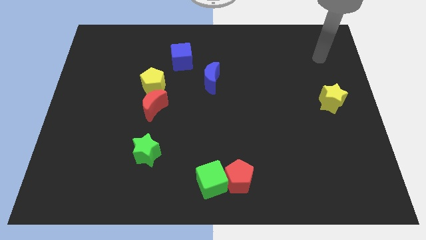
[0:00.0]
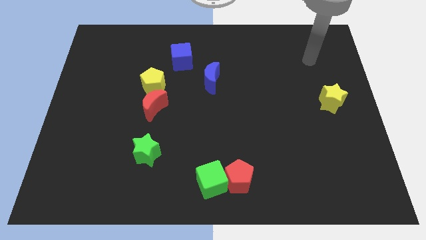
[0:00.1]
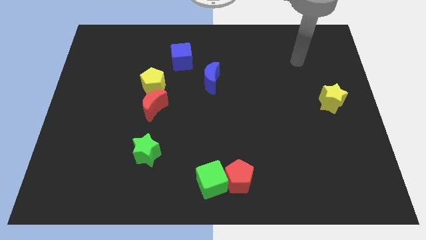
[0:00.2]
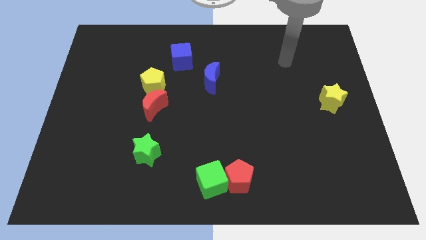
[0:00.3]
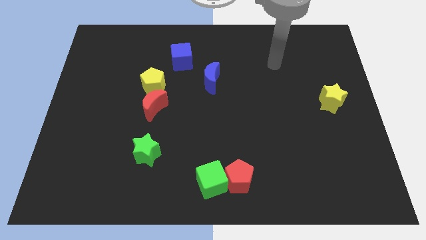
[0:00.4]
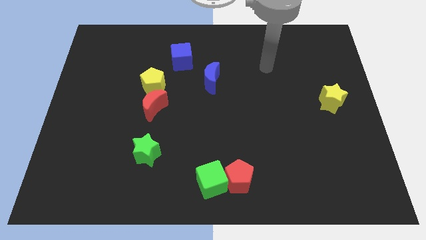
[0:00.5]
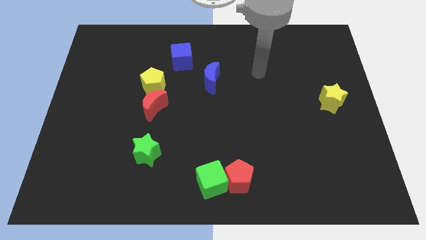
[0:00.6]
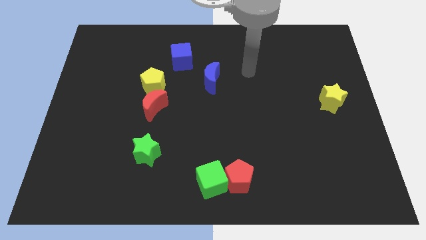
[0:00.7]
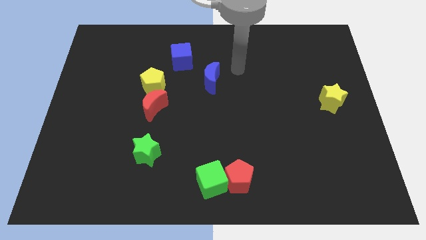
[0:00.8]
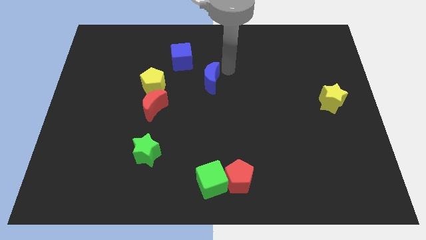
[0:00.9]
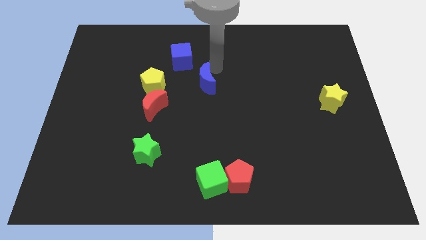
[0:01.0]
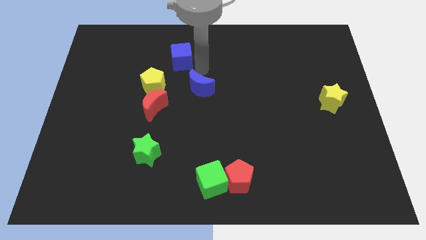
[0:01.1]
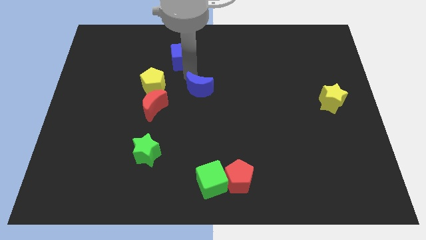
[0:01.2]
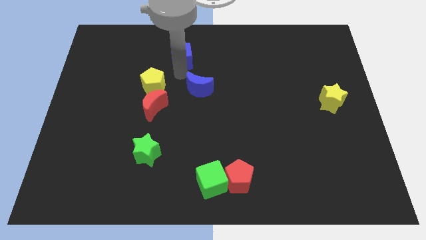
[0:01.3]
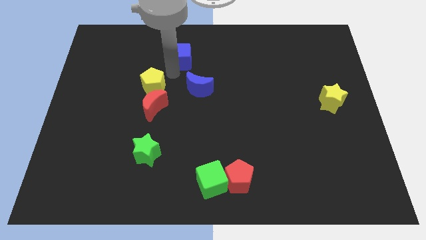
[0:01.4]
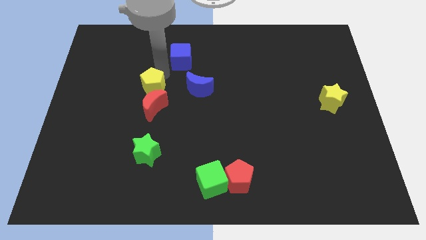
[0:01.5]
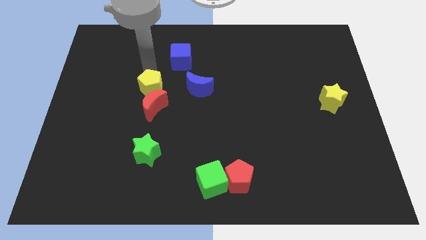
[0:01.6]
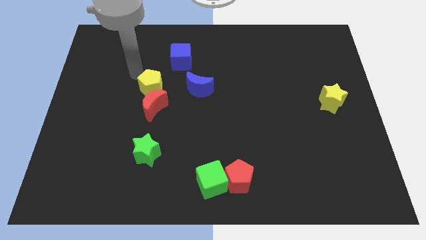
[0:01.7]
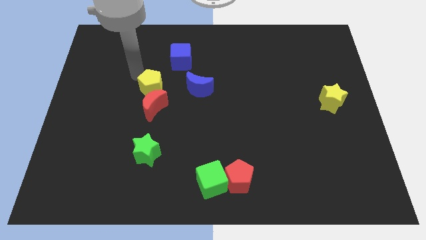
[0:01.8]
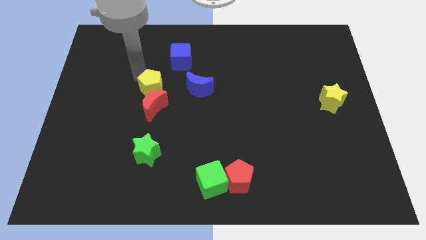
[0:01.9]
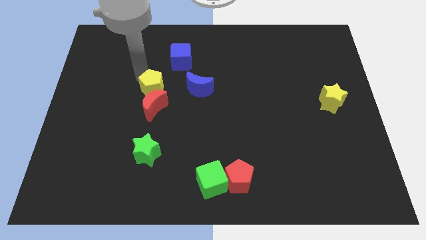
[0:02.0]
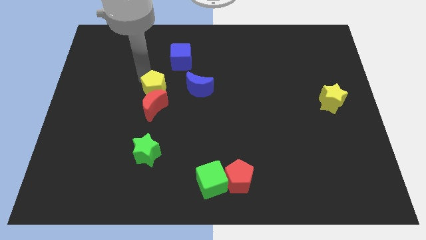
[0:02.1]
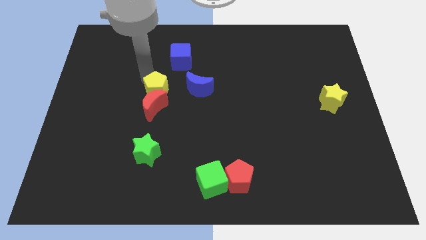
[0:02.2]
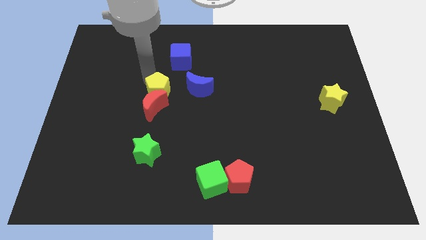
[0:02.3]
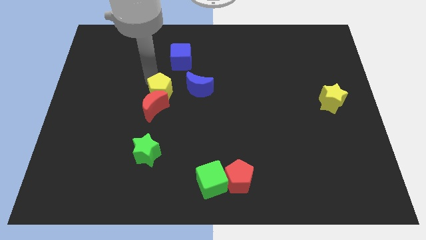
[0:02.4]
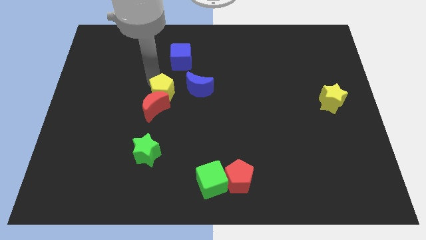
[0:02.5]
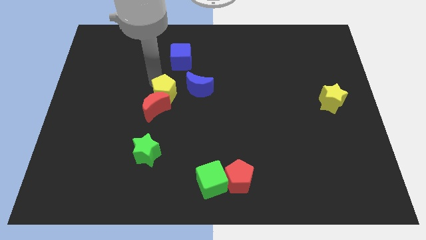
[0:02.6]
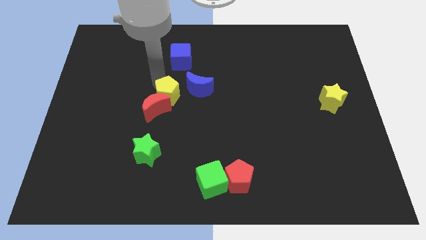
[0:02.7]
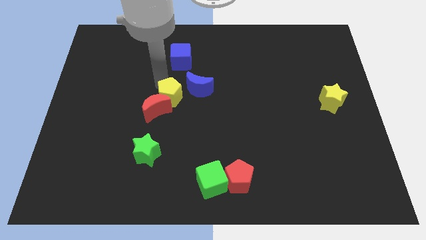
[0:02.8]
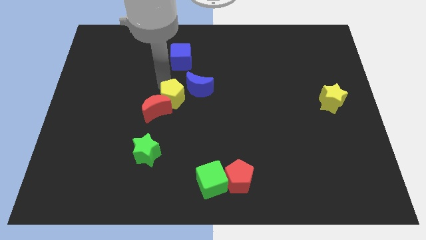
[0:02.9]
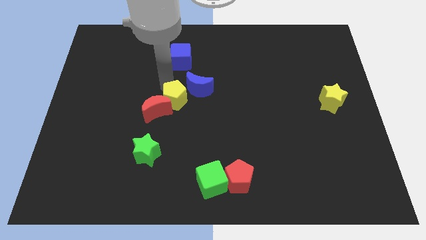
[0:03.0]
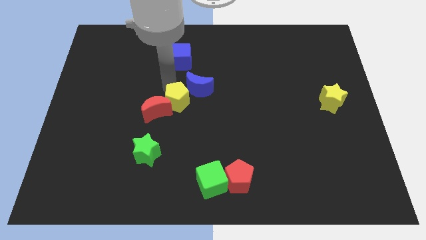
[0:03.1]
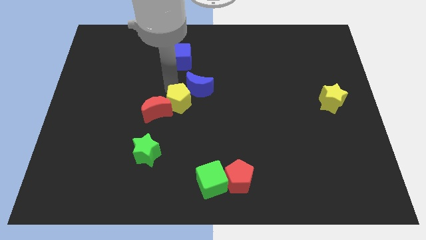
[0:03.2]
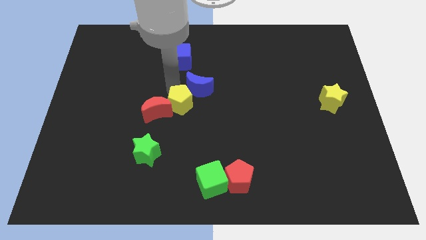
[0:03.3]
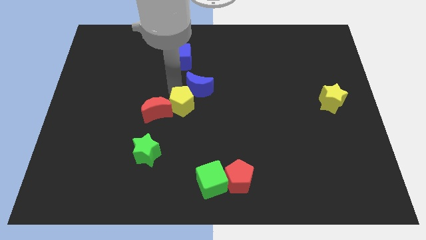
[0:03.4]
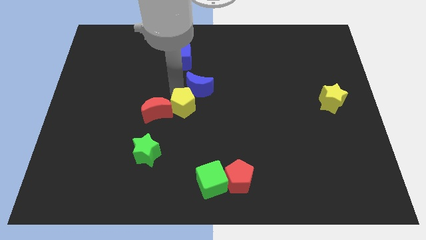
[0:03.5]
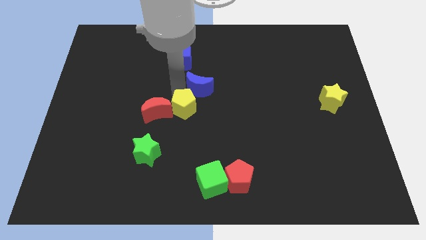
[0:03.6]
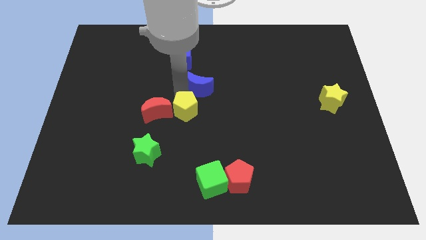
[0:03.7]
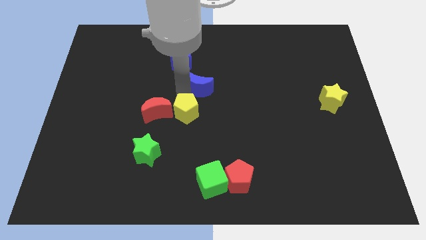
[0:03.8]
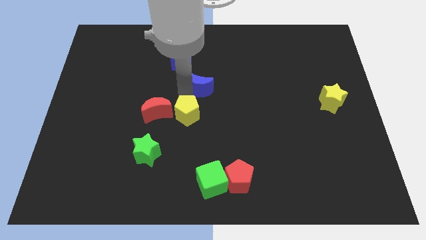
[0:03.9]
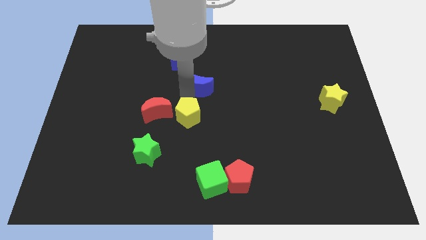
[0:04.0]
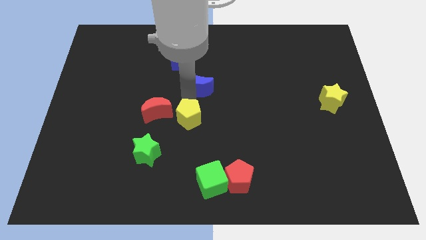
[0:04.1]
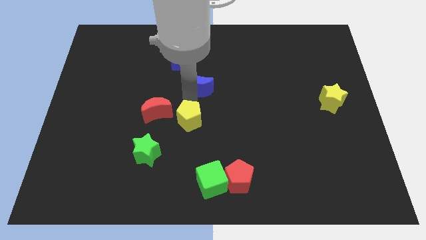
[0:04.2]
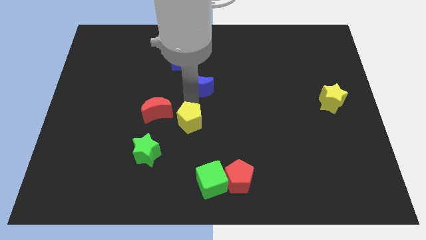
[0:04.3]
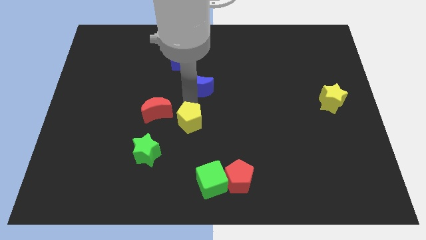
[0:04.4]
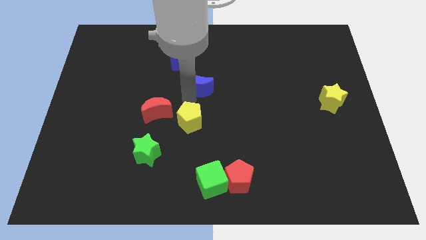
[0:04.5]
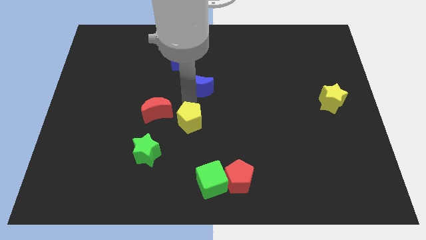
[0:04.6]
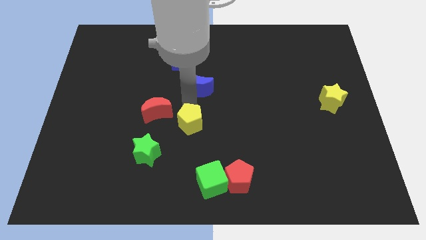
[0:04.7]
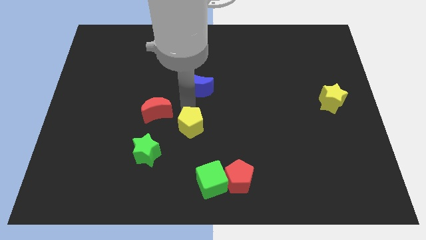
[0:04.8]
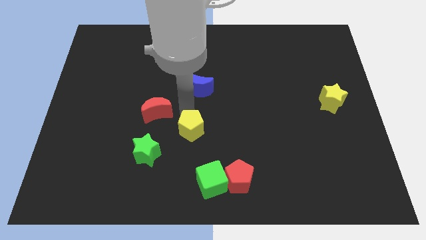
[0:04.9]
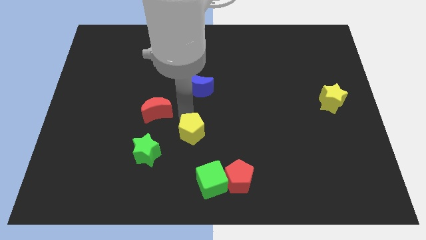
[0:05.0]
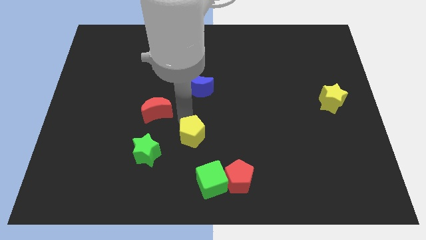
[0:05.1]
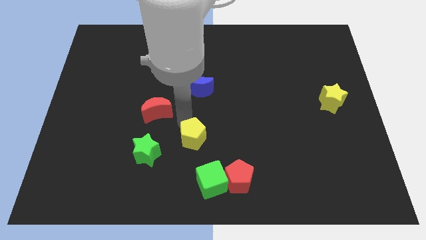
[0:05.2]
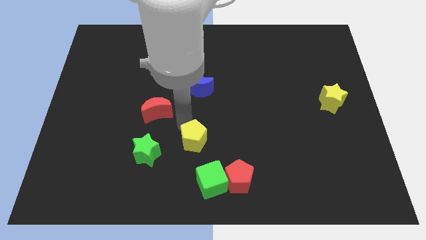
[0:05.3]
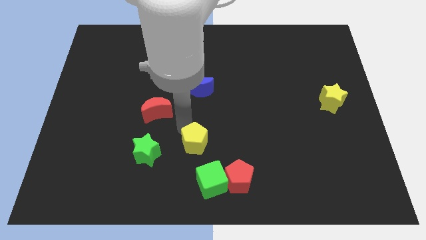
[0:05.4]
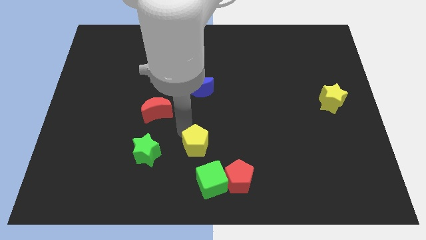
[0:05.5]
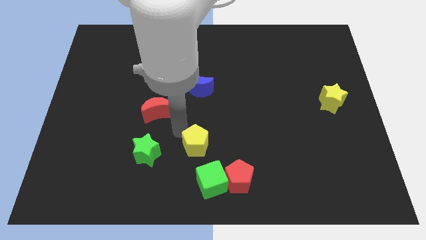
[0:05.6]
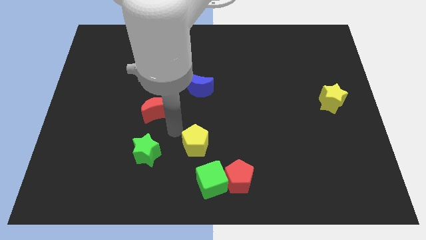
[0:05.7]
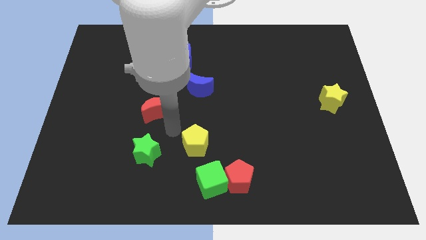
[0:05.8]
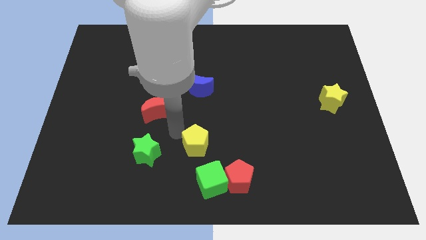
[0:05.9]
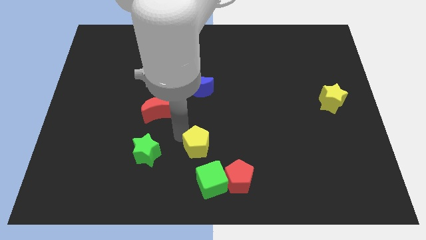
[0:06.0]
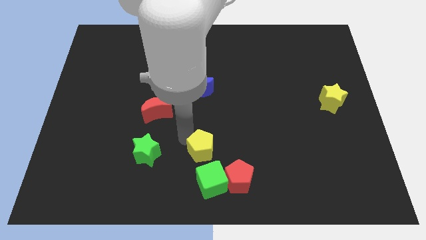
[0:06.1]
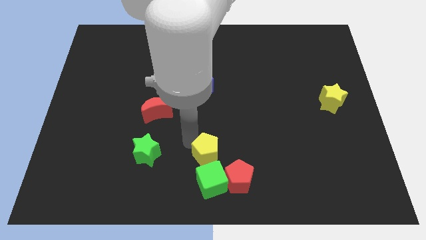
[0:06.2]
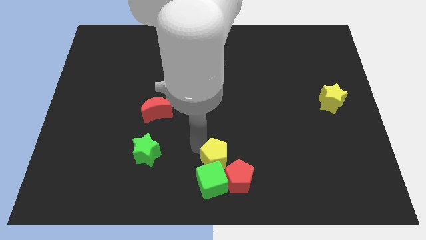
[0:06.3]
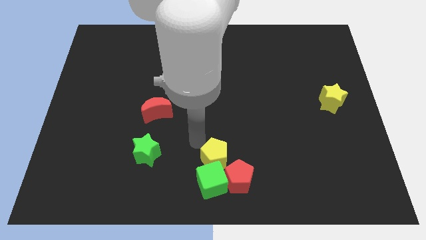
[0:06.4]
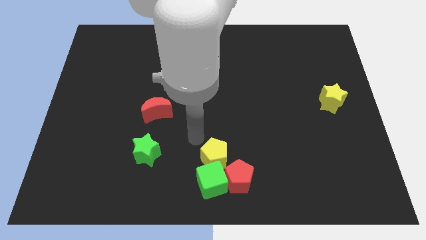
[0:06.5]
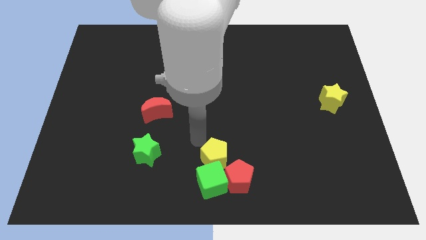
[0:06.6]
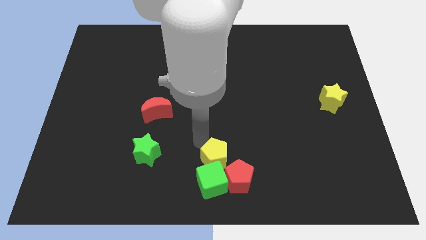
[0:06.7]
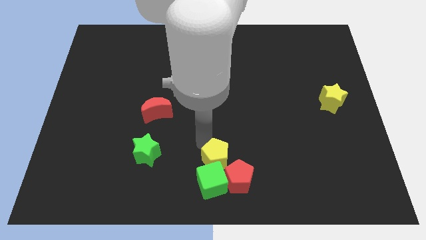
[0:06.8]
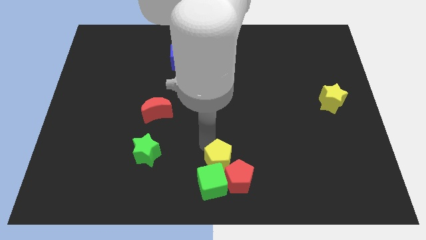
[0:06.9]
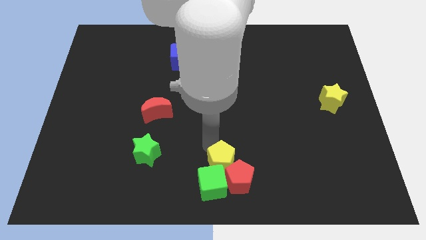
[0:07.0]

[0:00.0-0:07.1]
move the yellow pentagon towards the red pentagon
